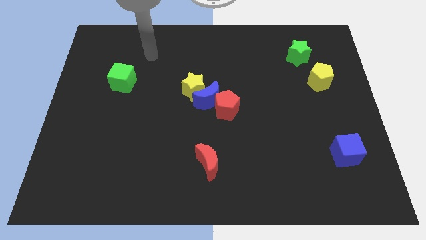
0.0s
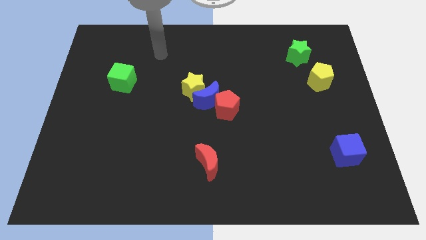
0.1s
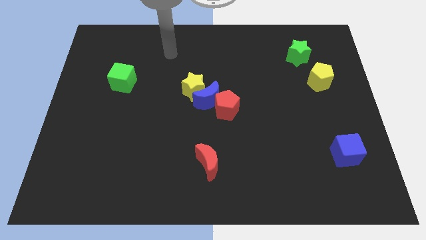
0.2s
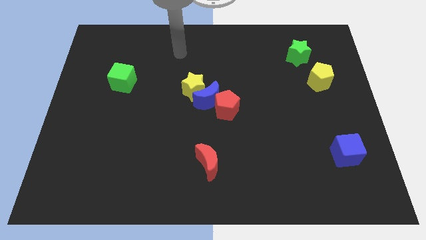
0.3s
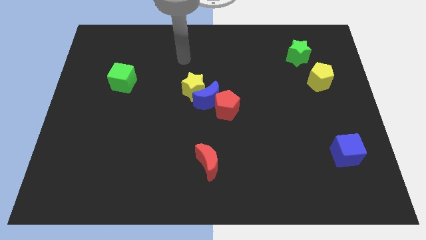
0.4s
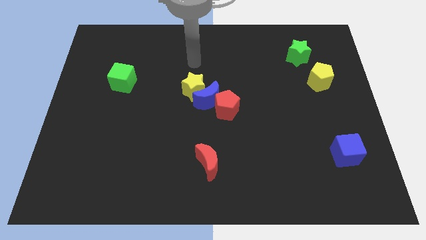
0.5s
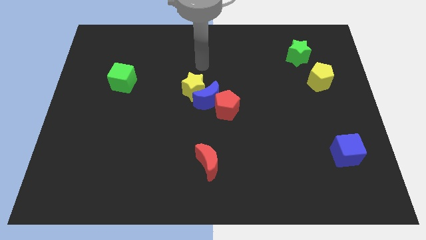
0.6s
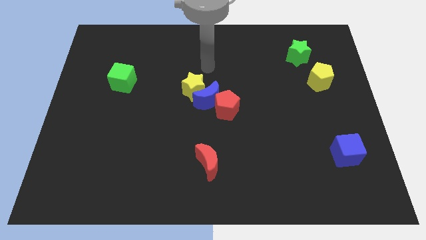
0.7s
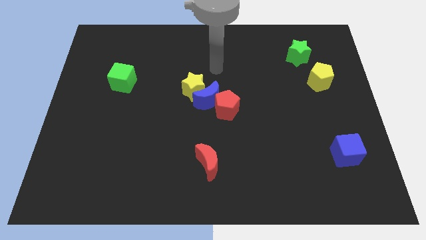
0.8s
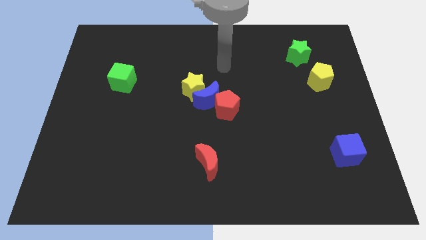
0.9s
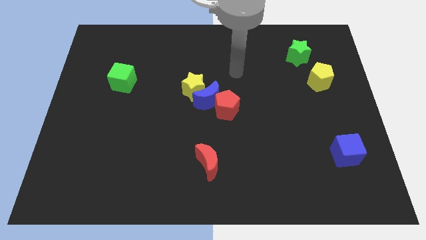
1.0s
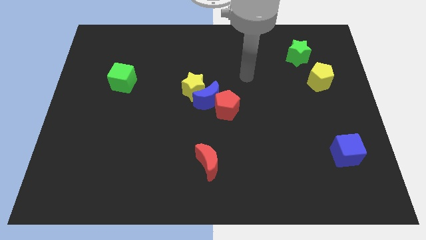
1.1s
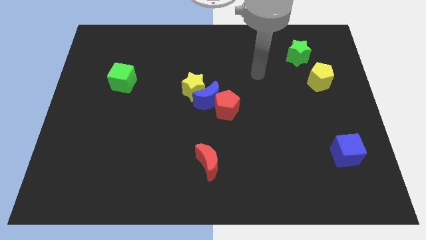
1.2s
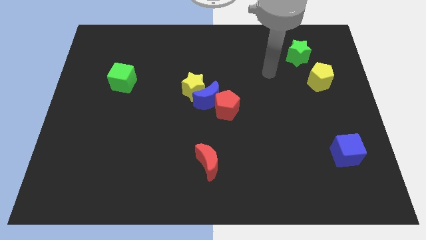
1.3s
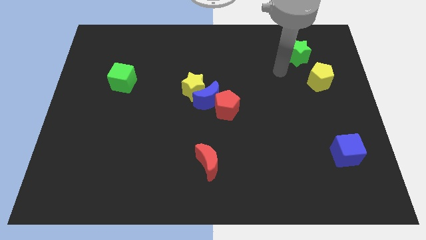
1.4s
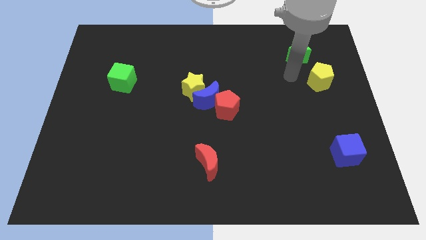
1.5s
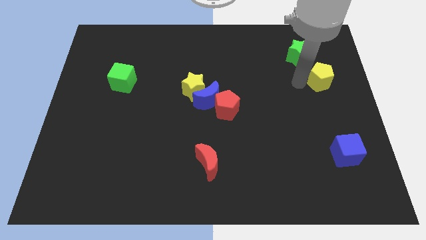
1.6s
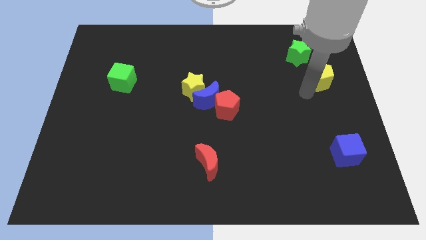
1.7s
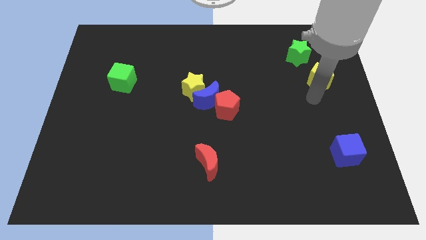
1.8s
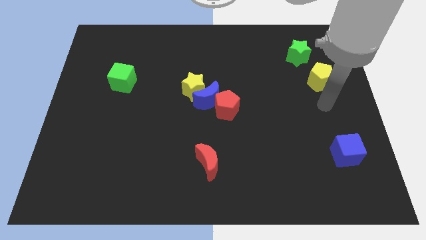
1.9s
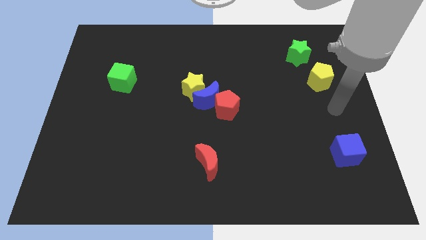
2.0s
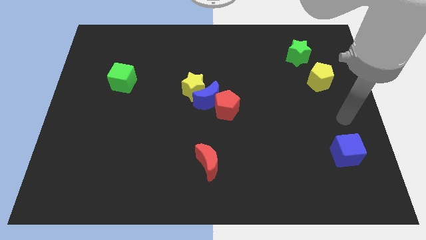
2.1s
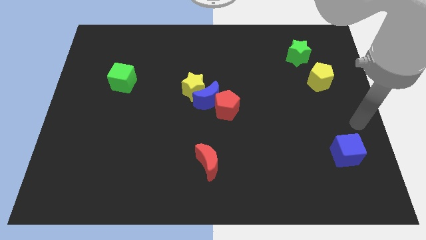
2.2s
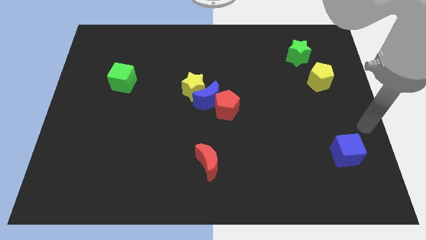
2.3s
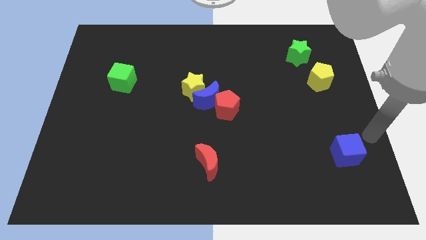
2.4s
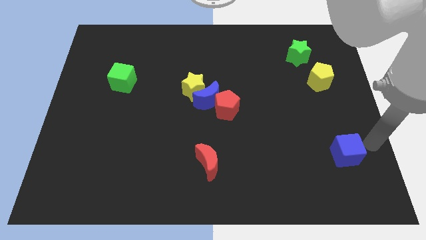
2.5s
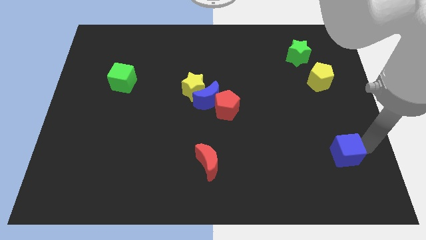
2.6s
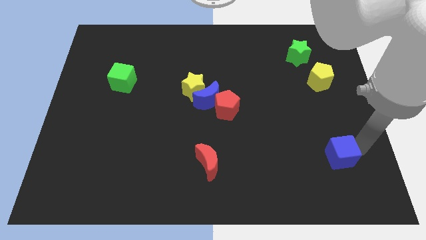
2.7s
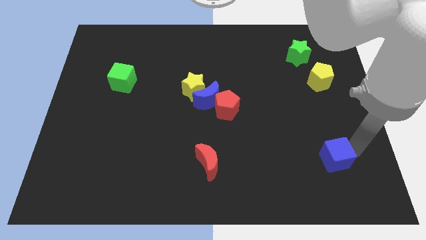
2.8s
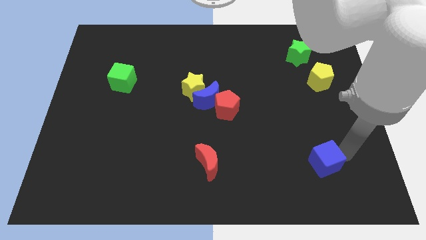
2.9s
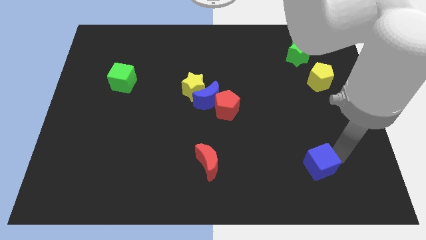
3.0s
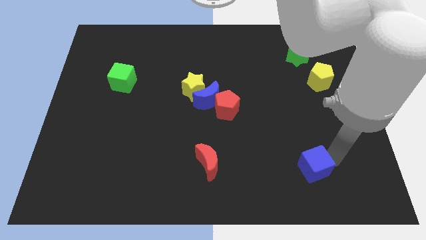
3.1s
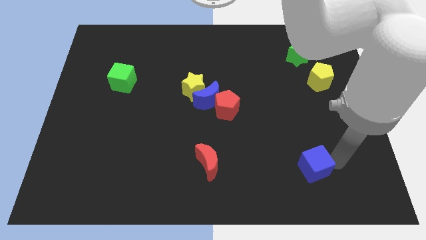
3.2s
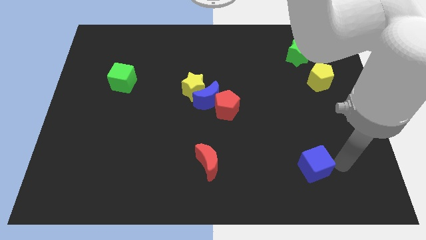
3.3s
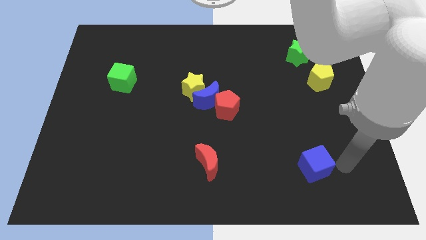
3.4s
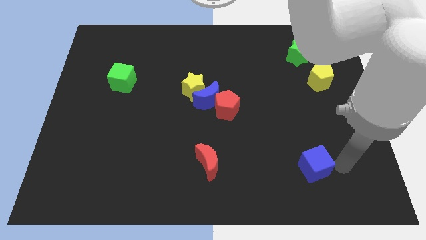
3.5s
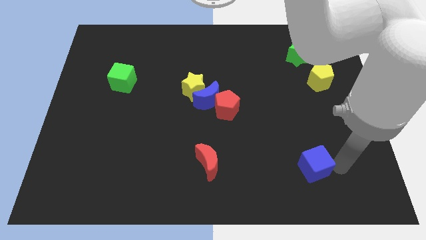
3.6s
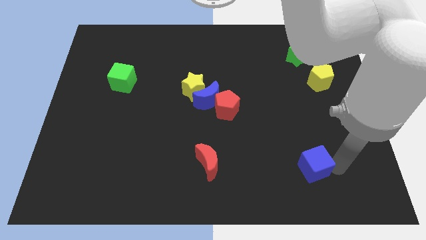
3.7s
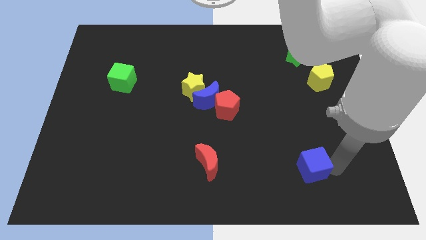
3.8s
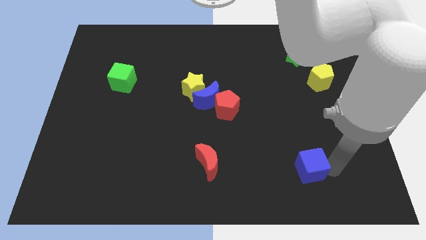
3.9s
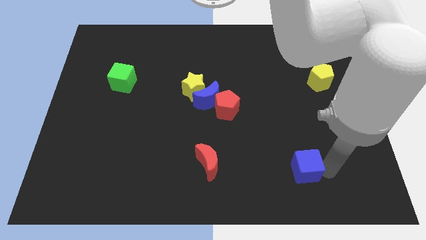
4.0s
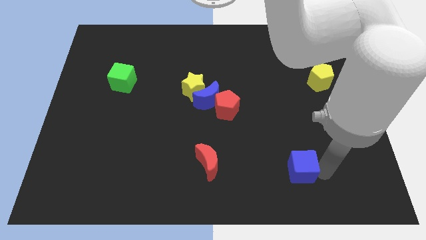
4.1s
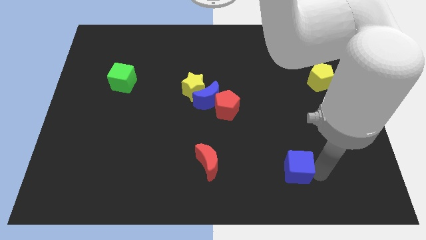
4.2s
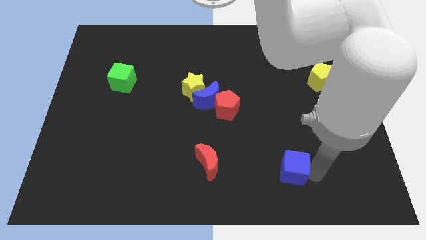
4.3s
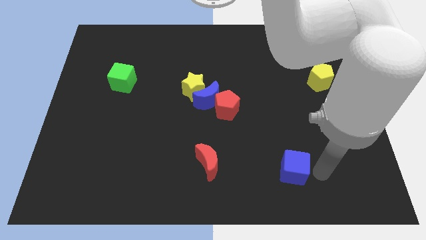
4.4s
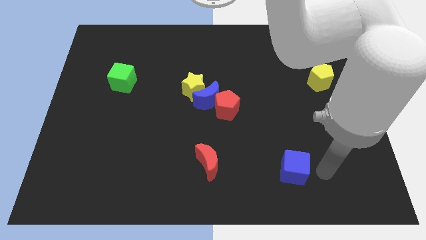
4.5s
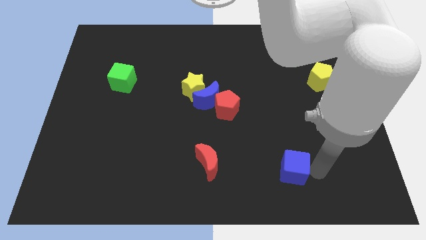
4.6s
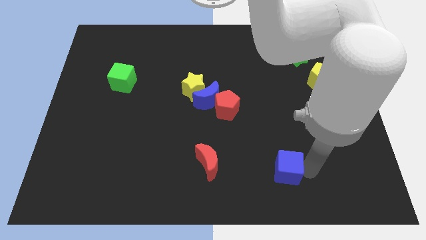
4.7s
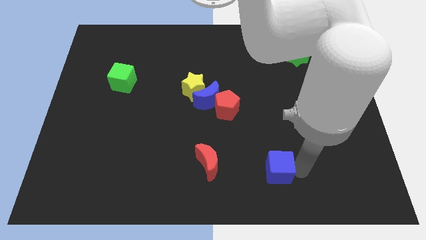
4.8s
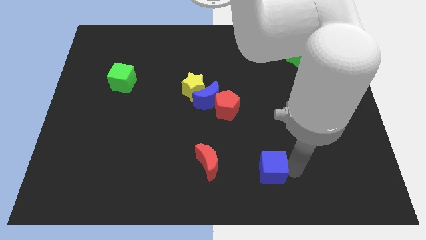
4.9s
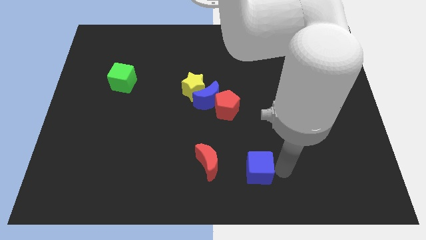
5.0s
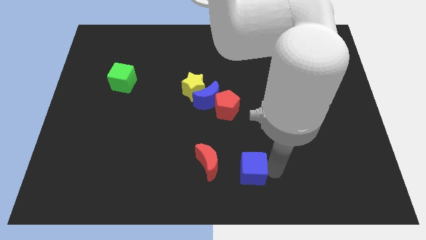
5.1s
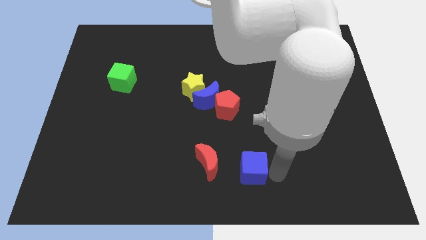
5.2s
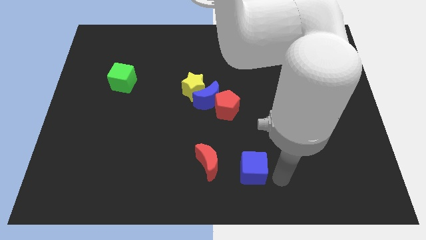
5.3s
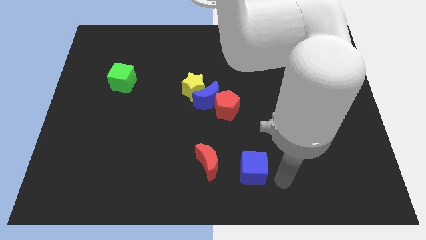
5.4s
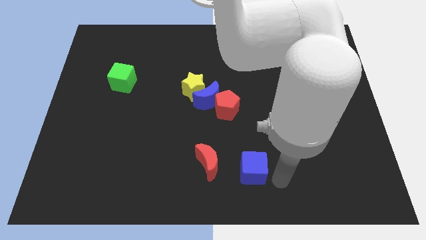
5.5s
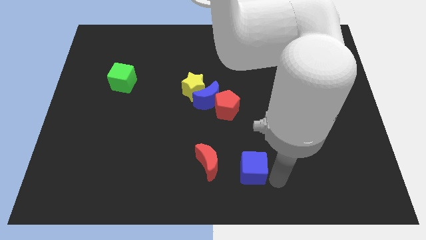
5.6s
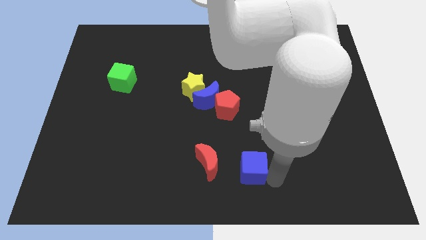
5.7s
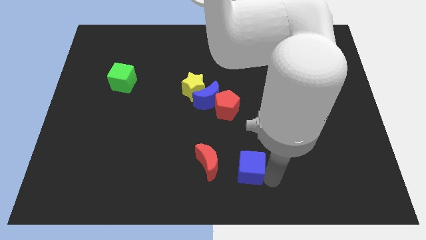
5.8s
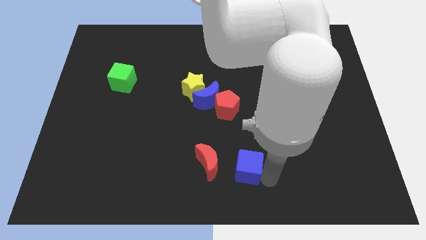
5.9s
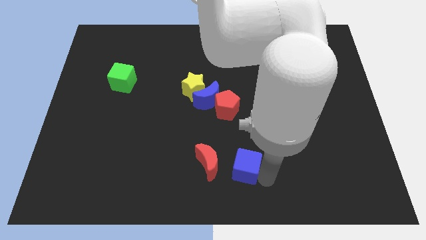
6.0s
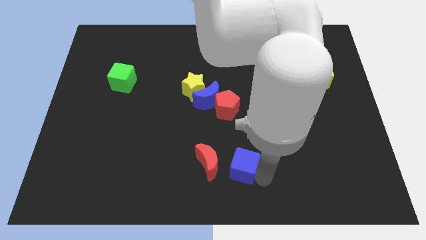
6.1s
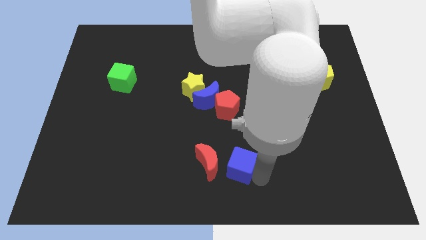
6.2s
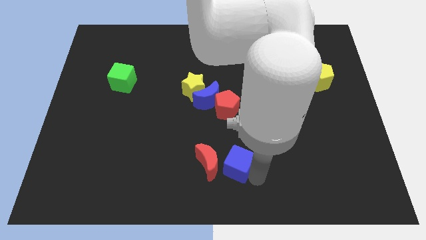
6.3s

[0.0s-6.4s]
push the blue cube next to the red moon

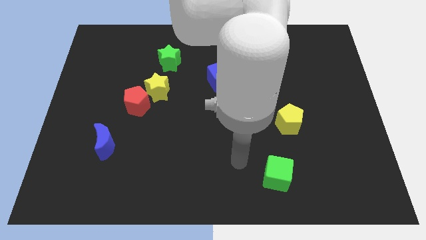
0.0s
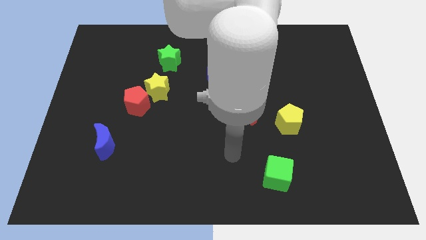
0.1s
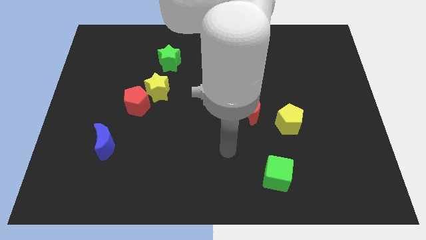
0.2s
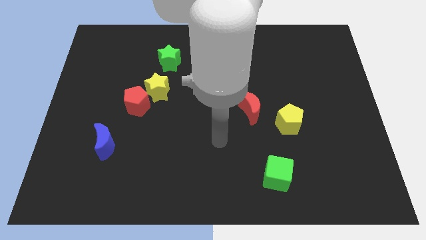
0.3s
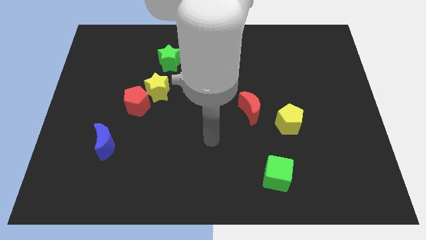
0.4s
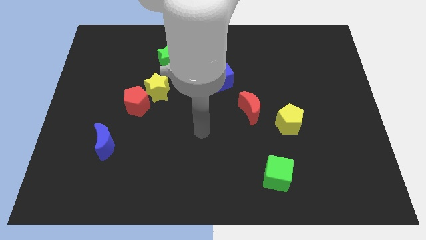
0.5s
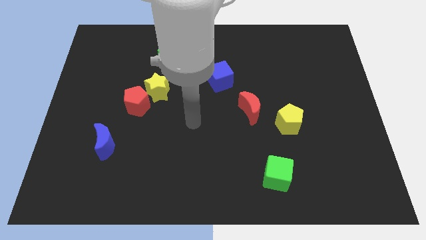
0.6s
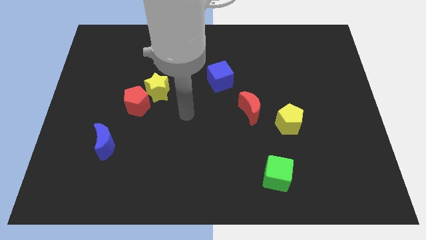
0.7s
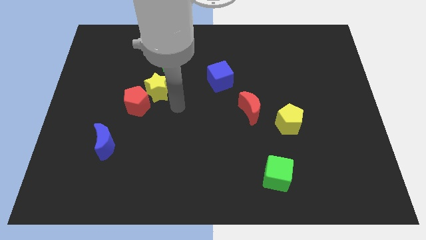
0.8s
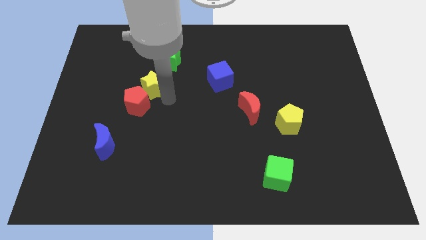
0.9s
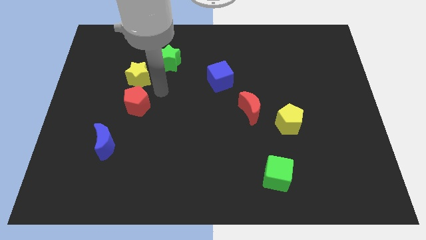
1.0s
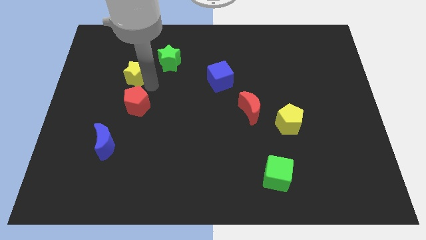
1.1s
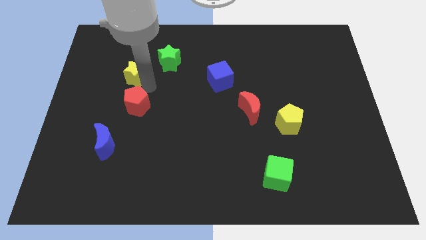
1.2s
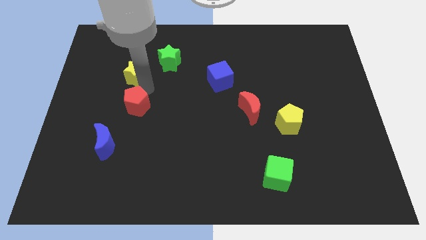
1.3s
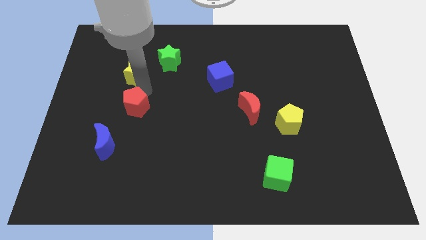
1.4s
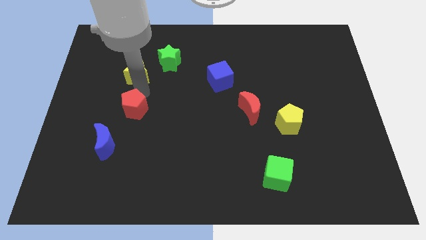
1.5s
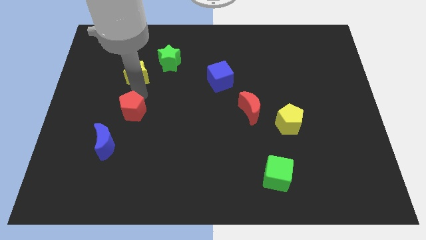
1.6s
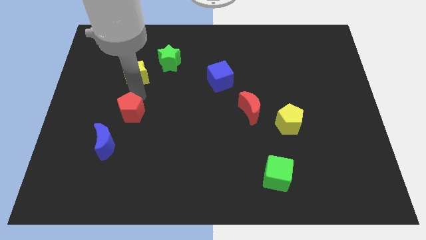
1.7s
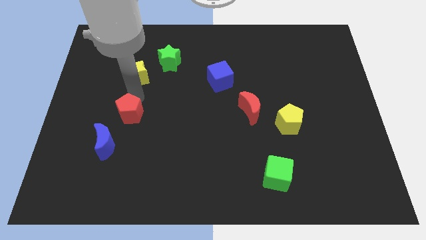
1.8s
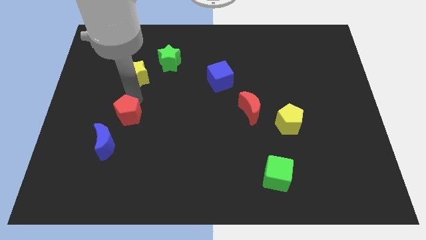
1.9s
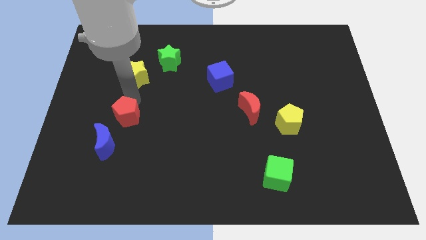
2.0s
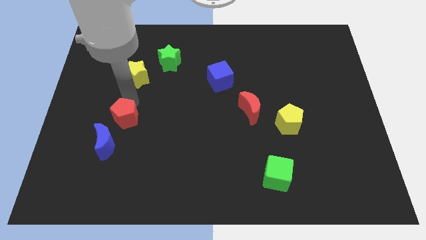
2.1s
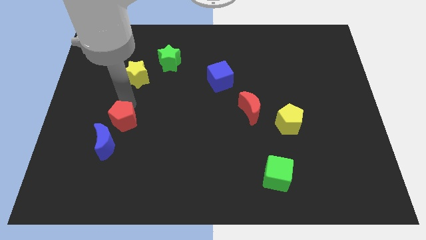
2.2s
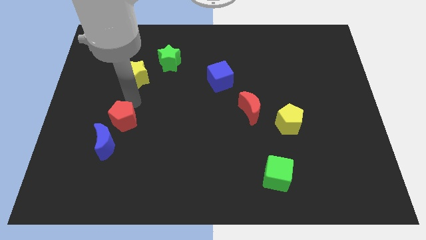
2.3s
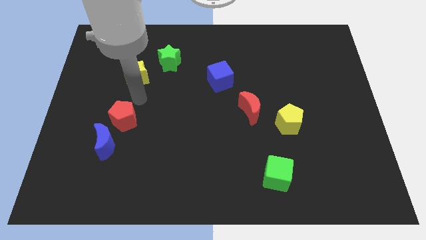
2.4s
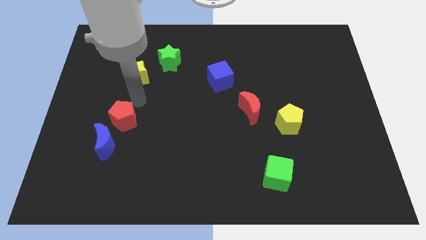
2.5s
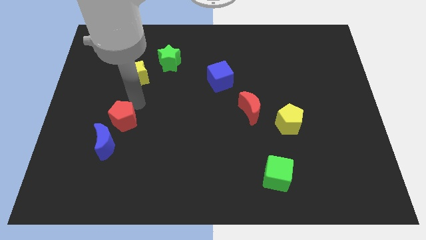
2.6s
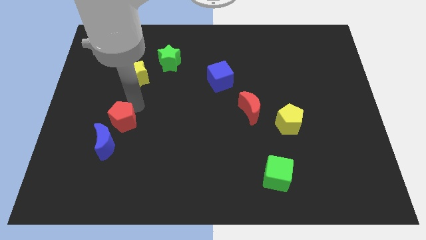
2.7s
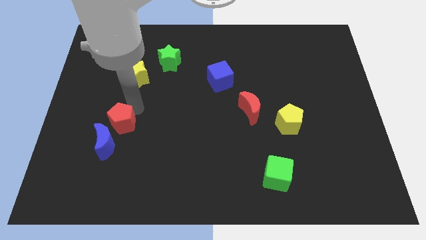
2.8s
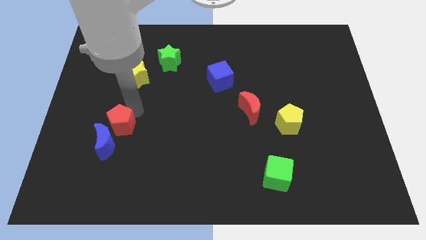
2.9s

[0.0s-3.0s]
put the red pentagon close to the blue moon
